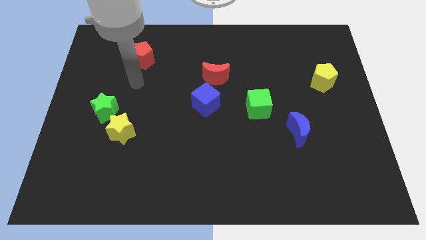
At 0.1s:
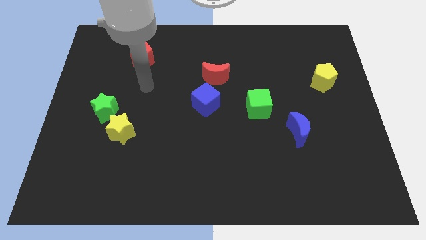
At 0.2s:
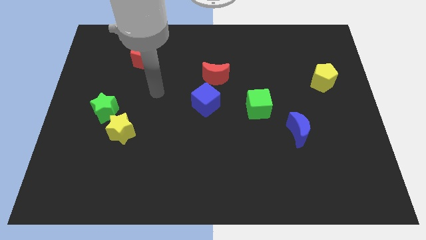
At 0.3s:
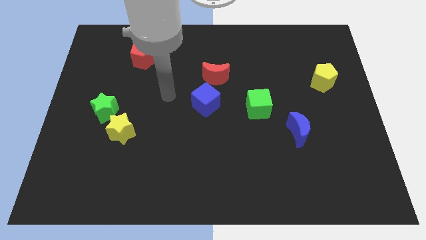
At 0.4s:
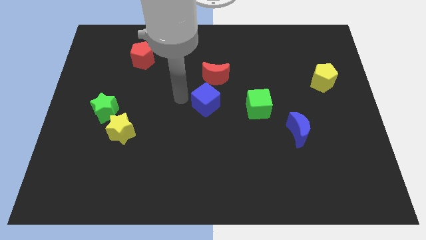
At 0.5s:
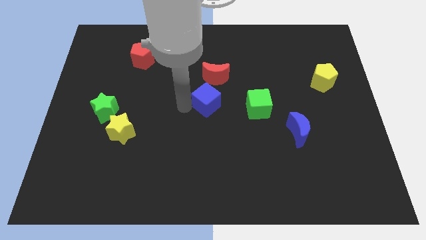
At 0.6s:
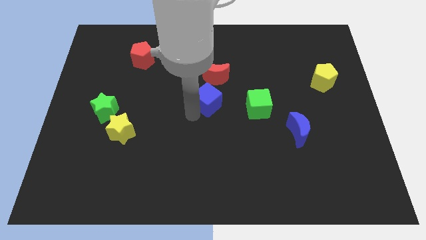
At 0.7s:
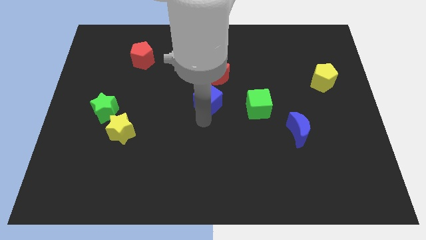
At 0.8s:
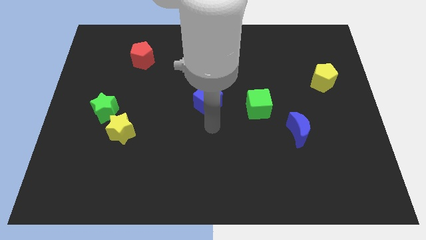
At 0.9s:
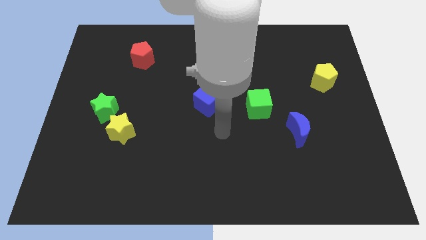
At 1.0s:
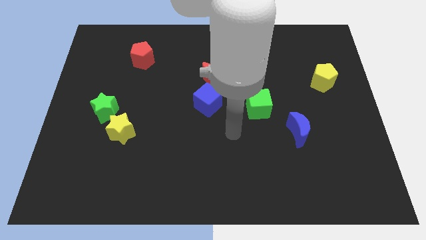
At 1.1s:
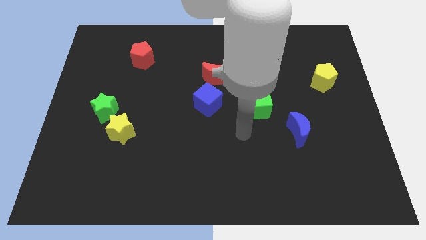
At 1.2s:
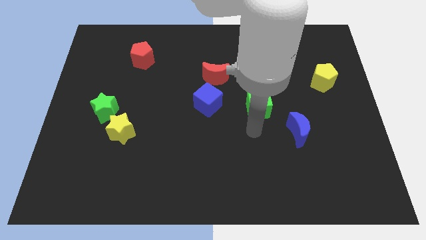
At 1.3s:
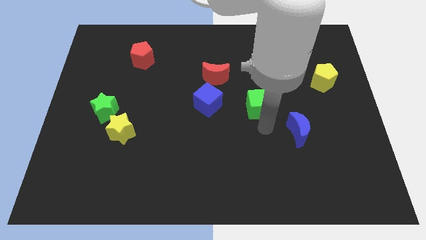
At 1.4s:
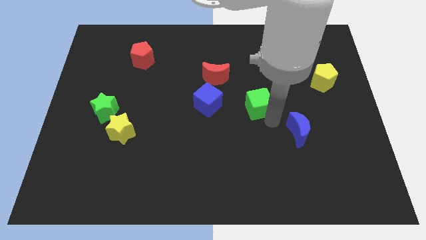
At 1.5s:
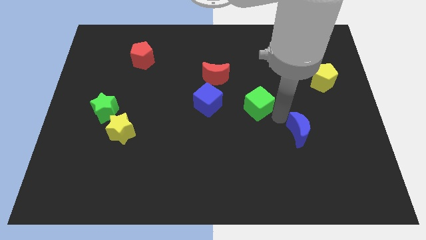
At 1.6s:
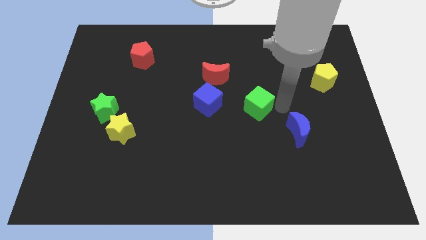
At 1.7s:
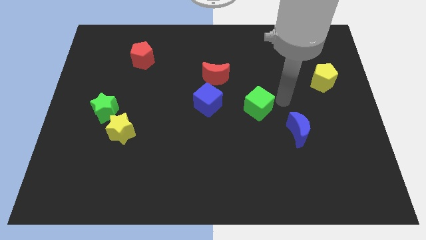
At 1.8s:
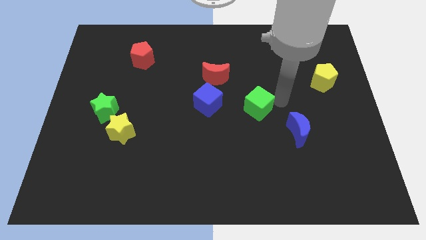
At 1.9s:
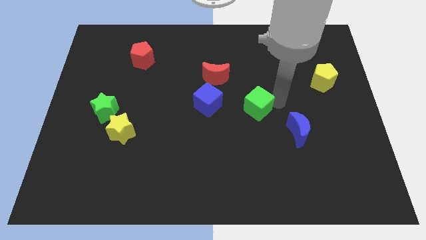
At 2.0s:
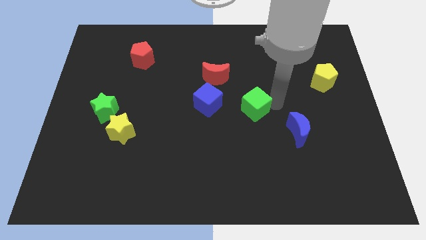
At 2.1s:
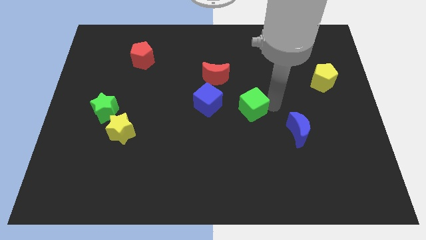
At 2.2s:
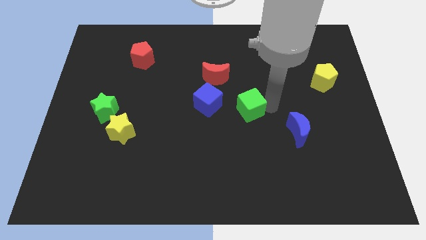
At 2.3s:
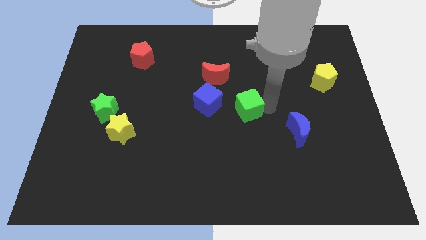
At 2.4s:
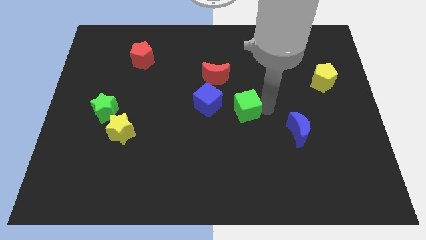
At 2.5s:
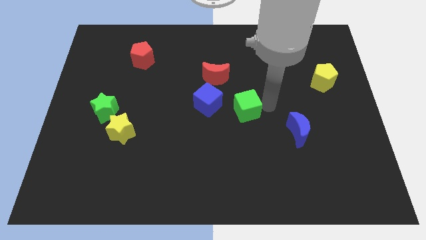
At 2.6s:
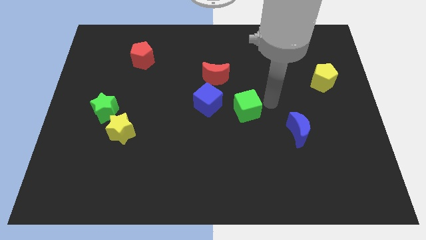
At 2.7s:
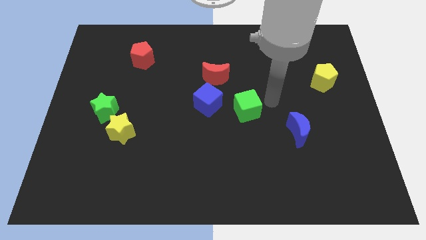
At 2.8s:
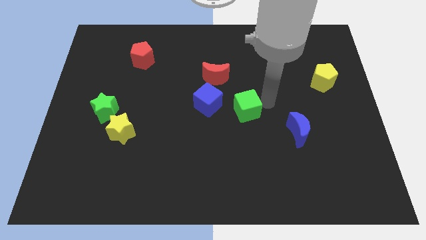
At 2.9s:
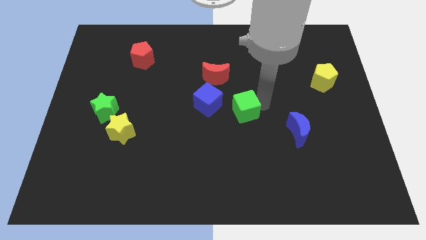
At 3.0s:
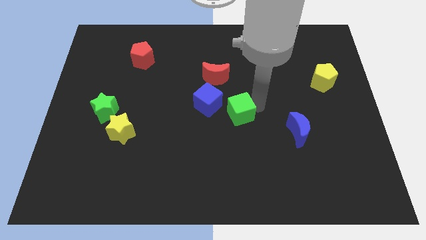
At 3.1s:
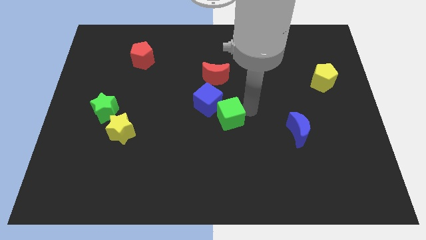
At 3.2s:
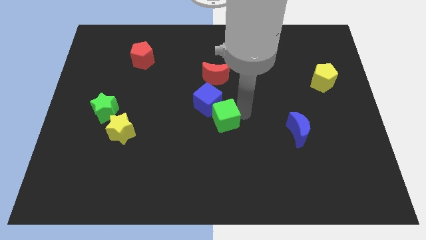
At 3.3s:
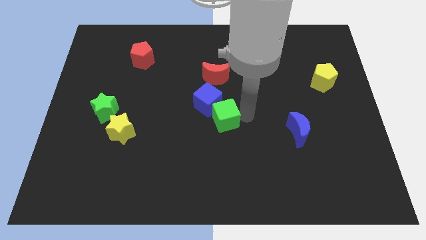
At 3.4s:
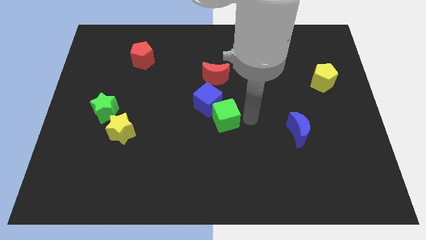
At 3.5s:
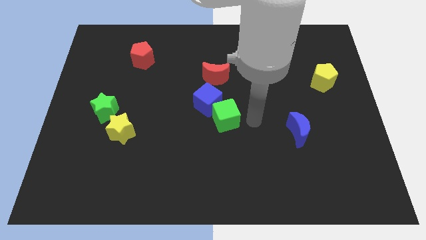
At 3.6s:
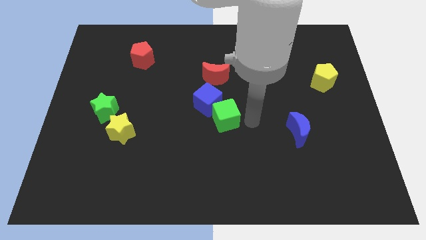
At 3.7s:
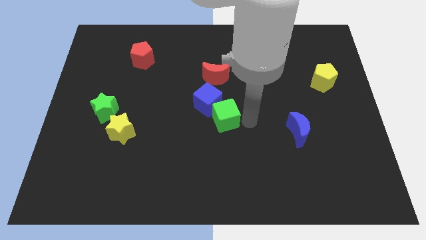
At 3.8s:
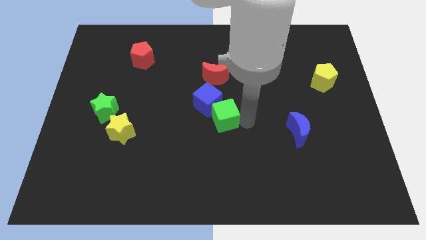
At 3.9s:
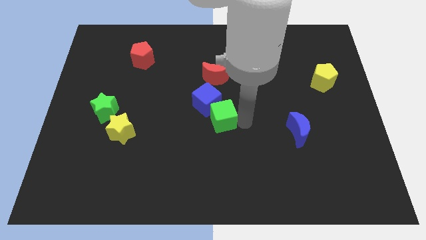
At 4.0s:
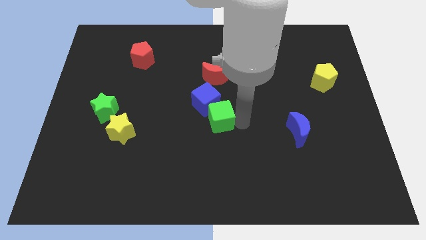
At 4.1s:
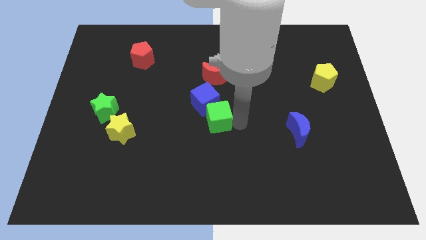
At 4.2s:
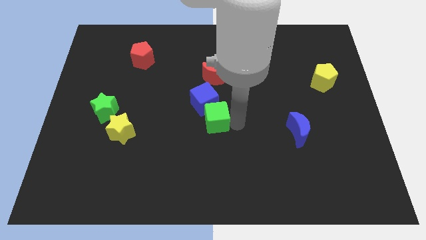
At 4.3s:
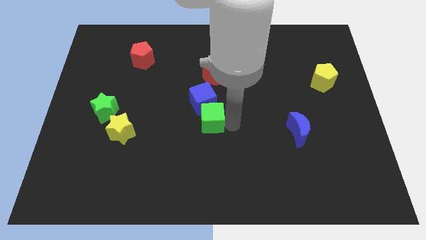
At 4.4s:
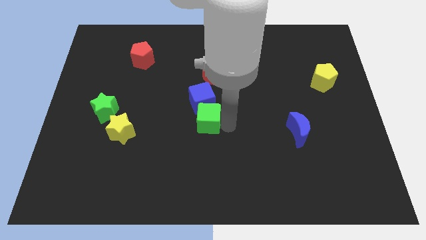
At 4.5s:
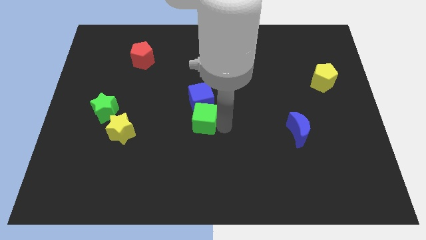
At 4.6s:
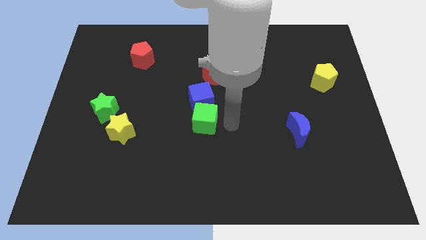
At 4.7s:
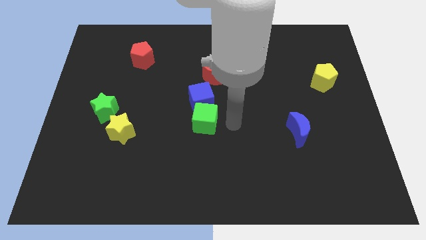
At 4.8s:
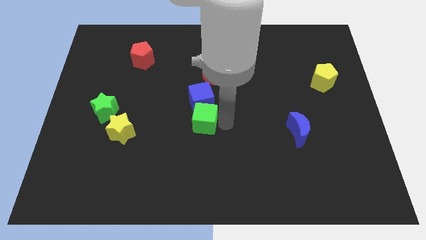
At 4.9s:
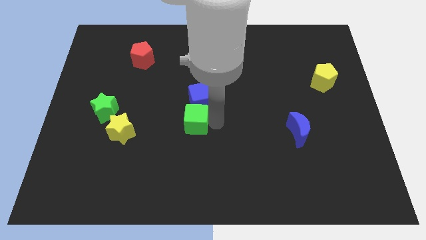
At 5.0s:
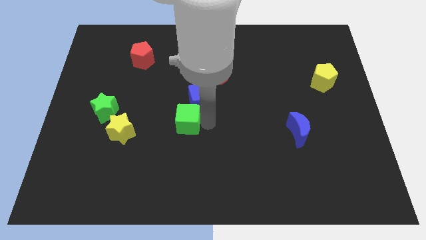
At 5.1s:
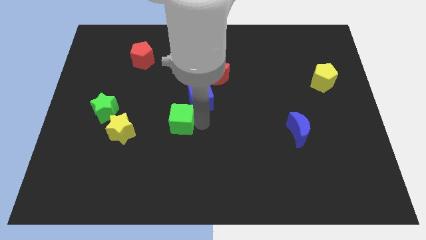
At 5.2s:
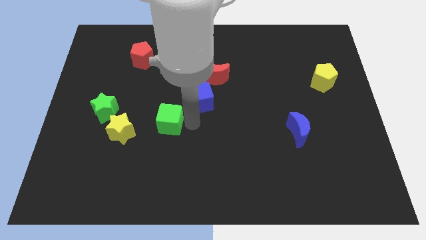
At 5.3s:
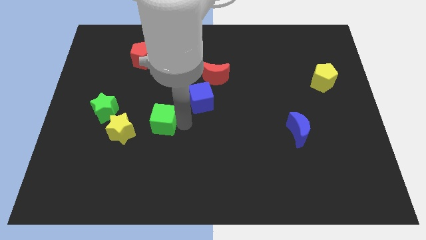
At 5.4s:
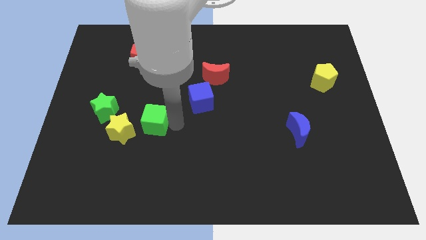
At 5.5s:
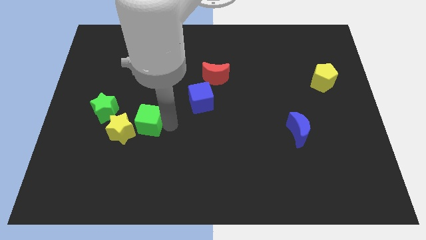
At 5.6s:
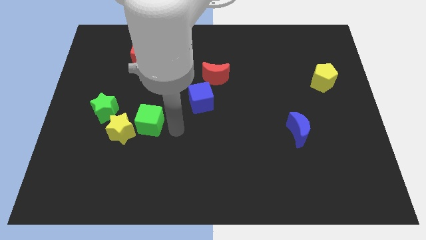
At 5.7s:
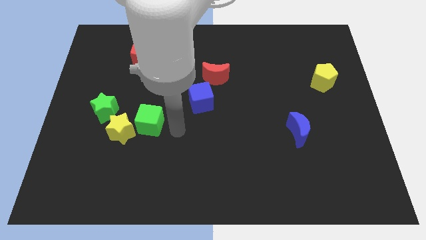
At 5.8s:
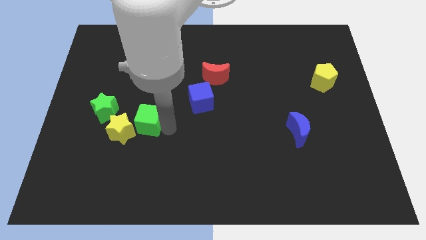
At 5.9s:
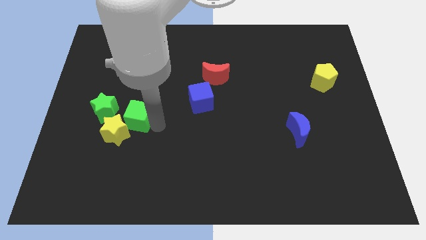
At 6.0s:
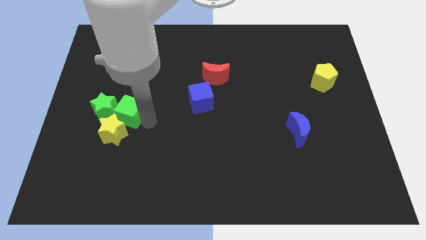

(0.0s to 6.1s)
push the green cube towards the green star

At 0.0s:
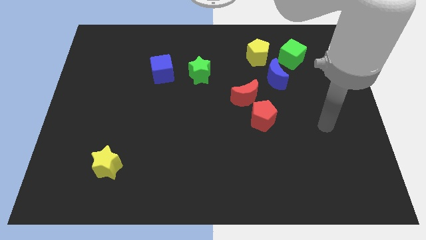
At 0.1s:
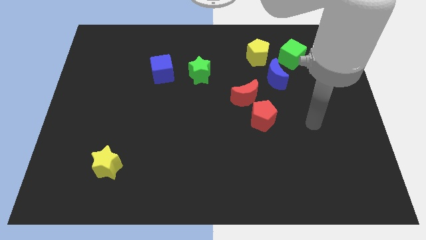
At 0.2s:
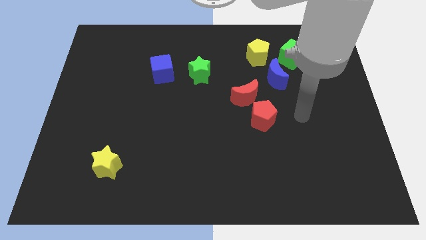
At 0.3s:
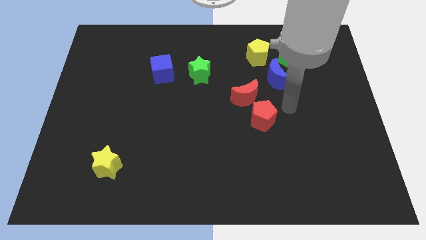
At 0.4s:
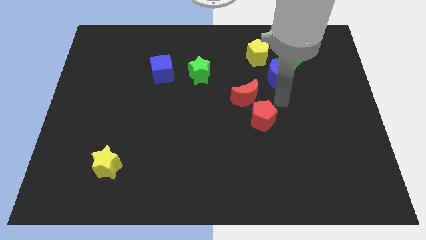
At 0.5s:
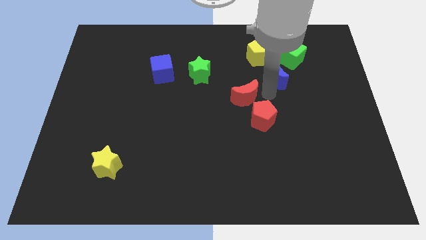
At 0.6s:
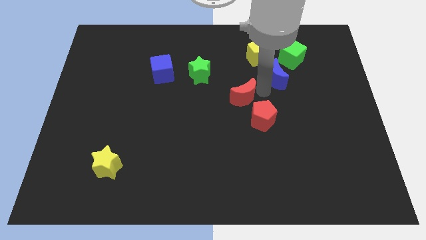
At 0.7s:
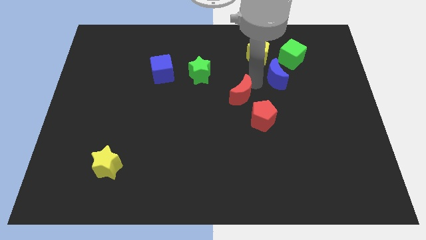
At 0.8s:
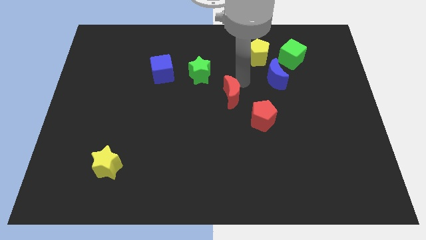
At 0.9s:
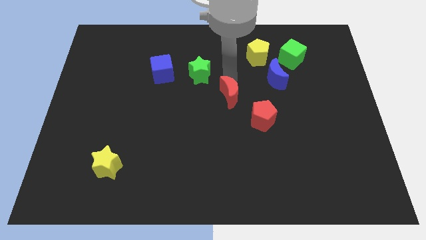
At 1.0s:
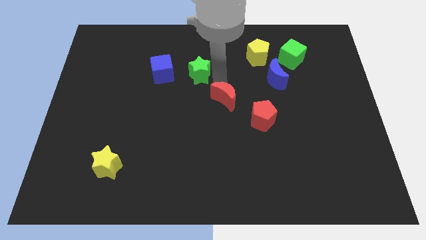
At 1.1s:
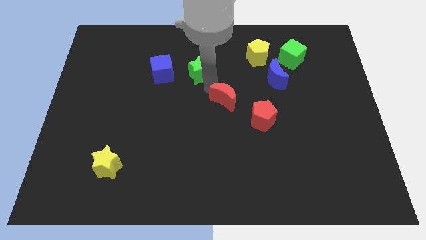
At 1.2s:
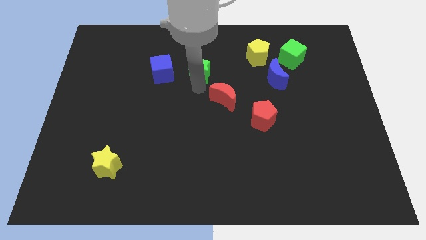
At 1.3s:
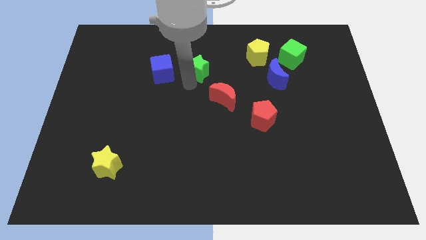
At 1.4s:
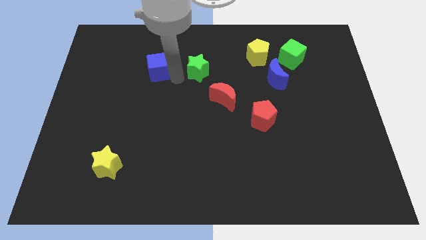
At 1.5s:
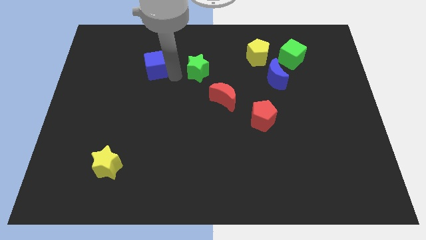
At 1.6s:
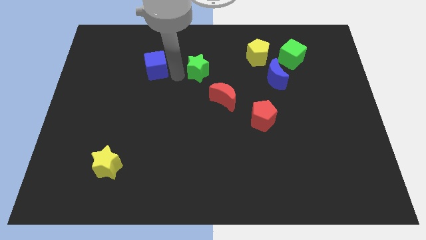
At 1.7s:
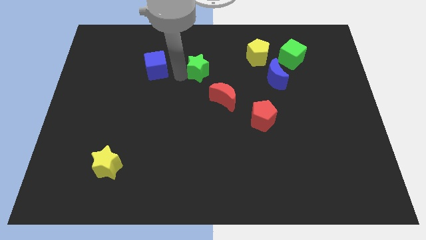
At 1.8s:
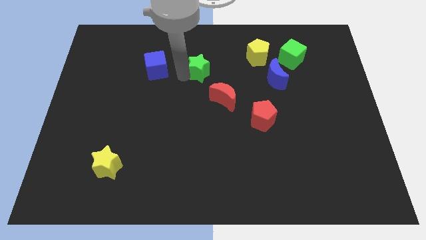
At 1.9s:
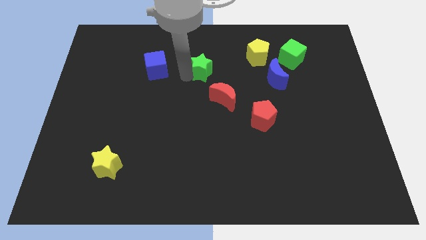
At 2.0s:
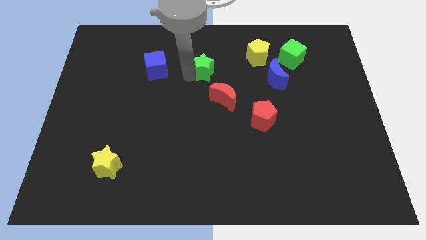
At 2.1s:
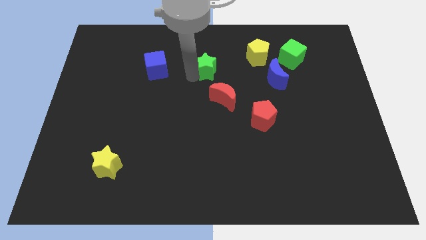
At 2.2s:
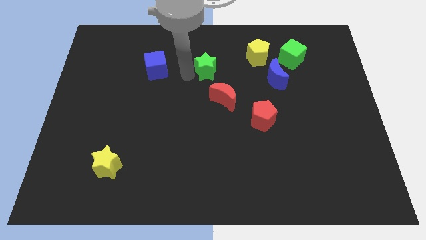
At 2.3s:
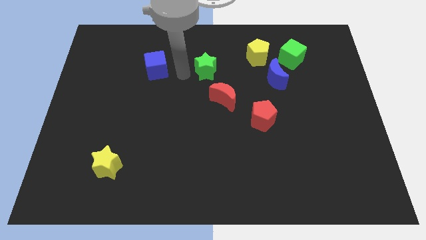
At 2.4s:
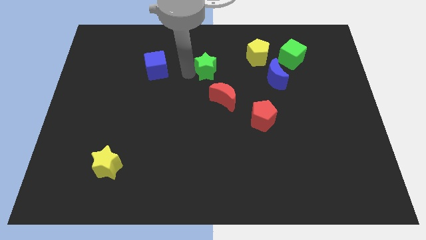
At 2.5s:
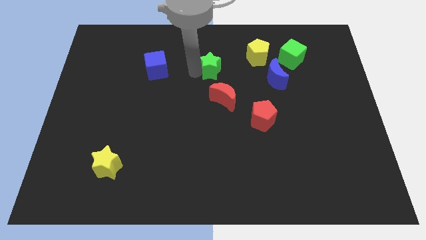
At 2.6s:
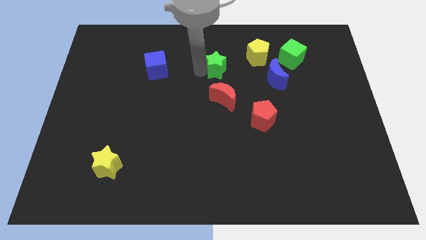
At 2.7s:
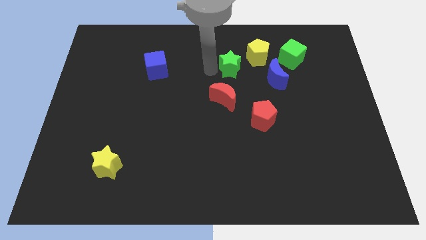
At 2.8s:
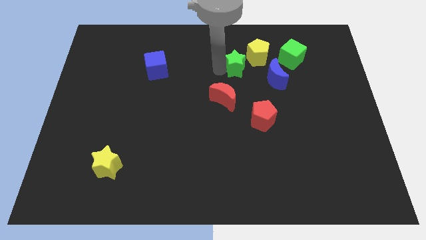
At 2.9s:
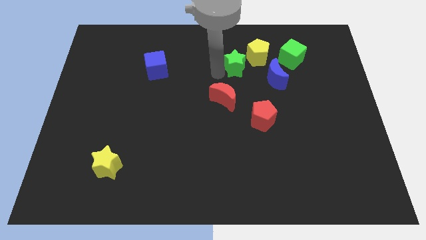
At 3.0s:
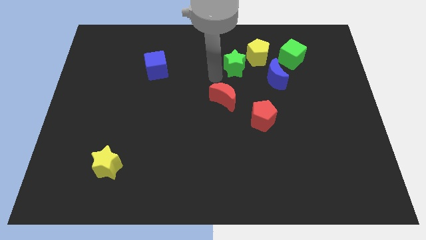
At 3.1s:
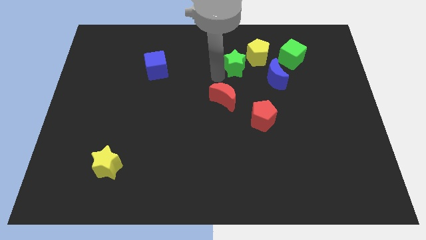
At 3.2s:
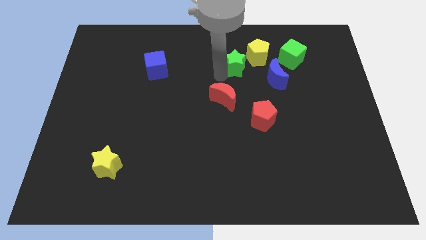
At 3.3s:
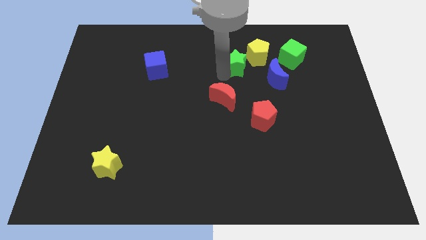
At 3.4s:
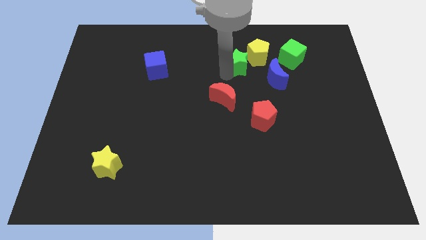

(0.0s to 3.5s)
move the green star to the yellow pentagon
